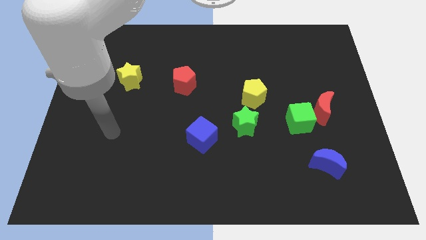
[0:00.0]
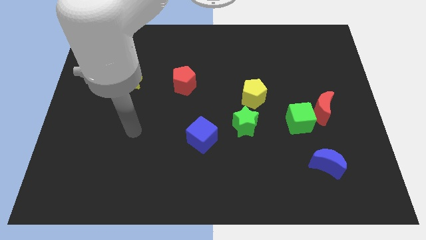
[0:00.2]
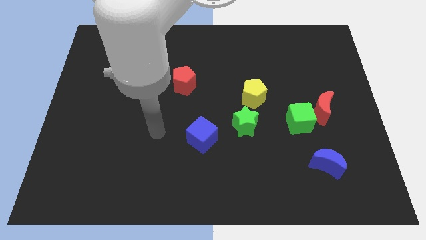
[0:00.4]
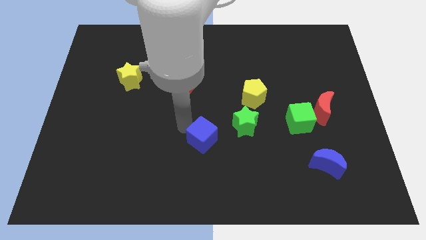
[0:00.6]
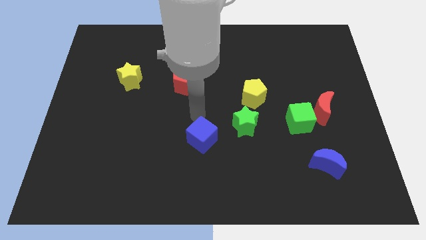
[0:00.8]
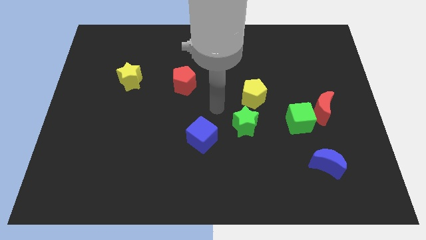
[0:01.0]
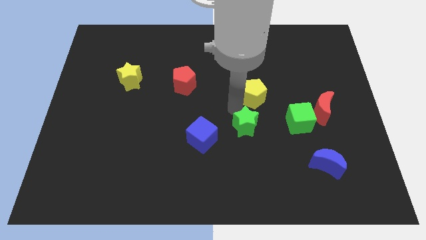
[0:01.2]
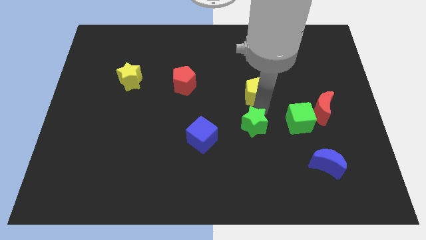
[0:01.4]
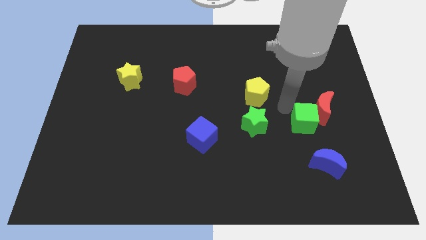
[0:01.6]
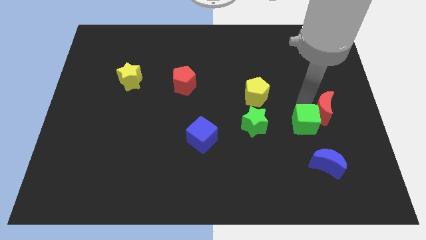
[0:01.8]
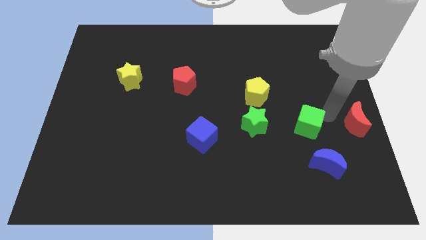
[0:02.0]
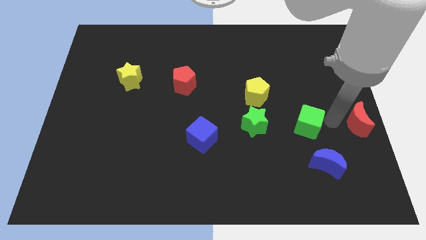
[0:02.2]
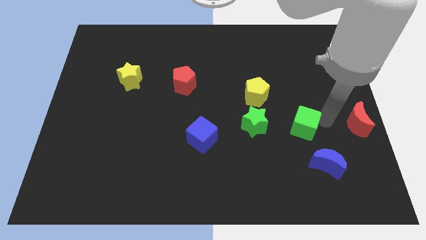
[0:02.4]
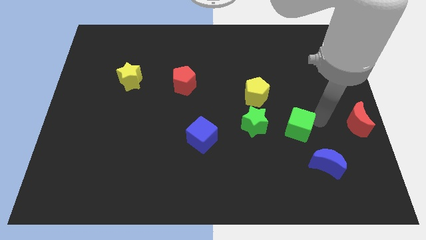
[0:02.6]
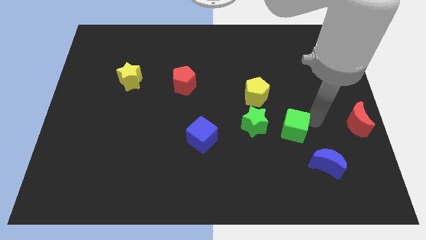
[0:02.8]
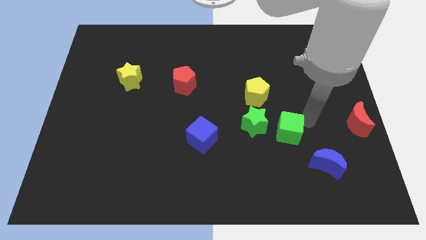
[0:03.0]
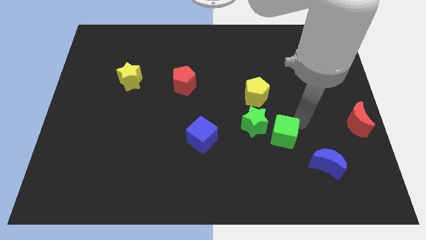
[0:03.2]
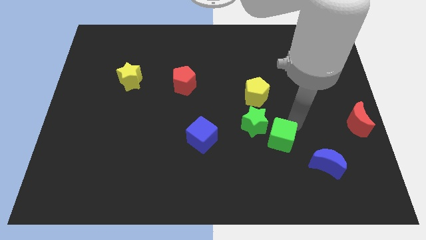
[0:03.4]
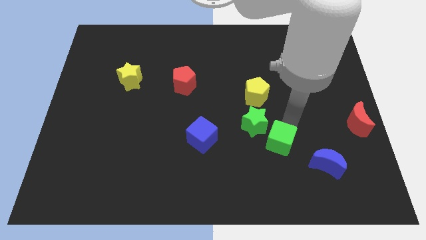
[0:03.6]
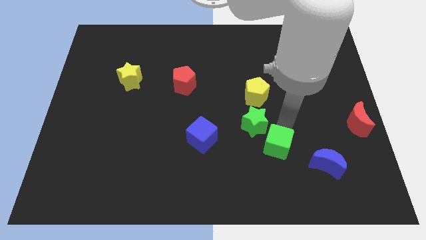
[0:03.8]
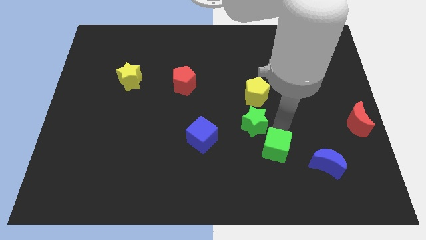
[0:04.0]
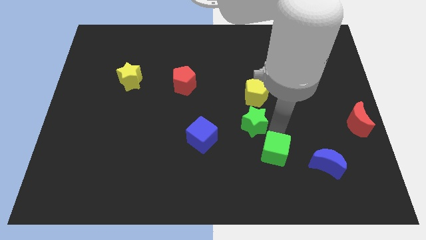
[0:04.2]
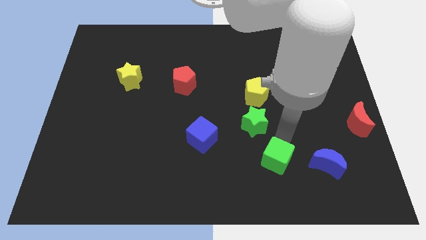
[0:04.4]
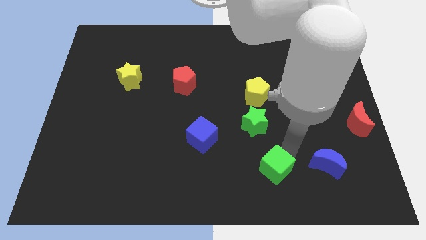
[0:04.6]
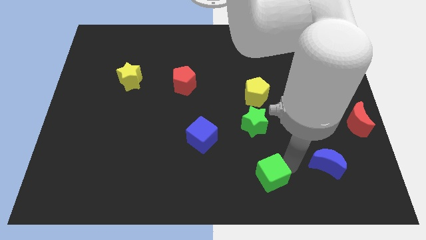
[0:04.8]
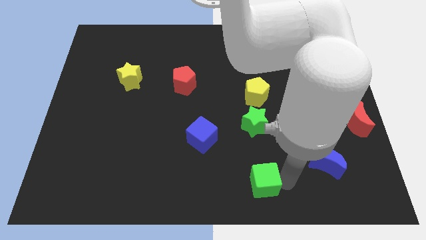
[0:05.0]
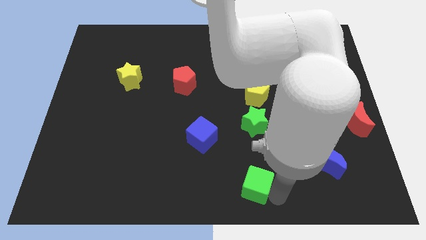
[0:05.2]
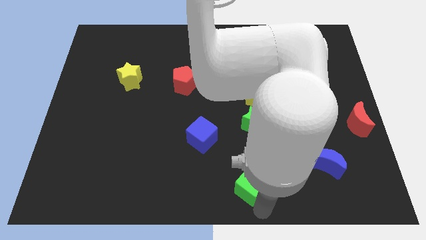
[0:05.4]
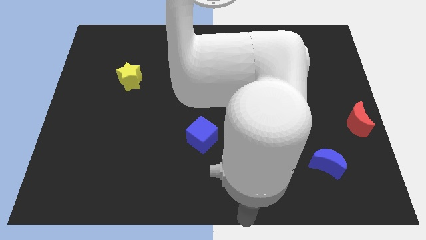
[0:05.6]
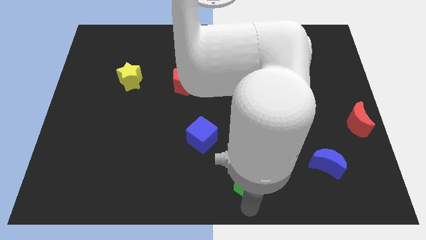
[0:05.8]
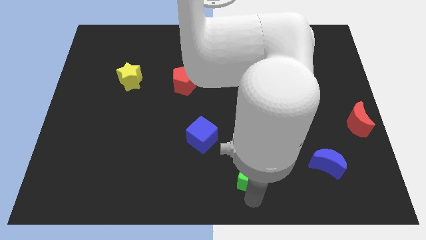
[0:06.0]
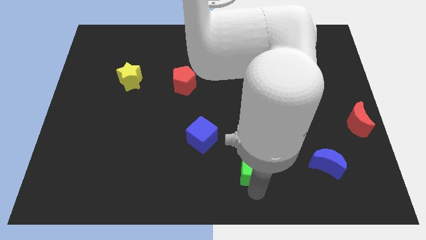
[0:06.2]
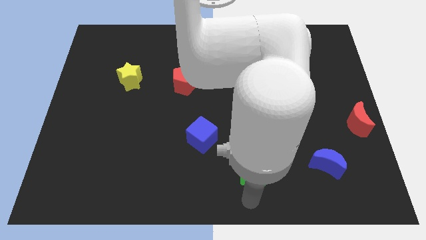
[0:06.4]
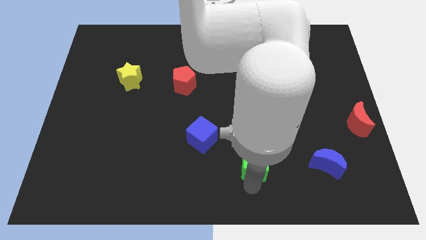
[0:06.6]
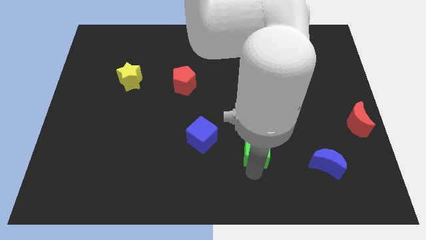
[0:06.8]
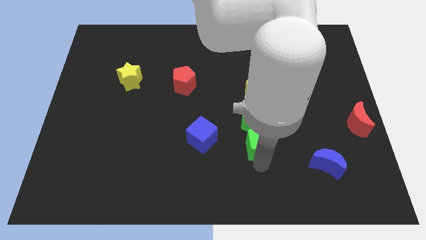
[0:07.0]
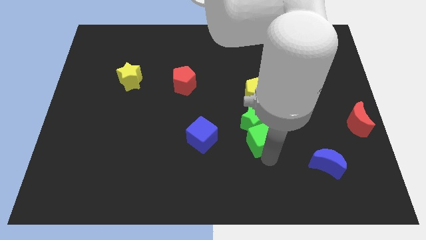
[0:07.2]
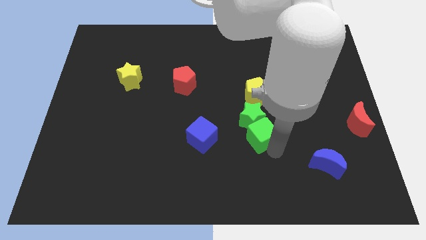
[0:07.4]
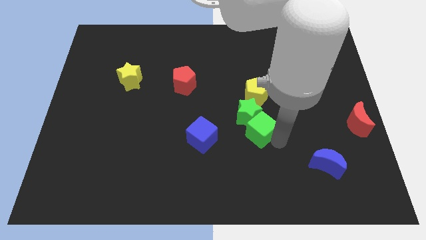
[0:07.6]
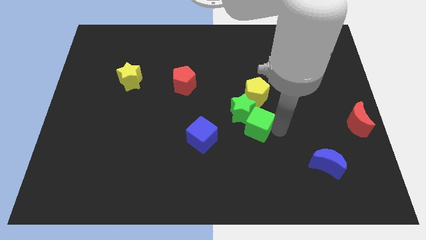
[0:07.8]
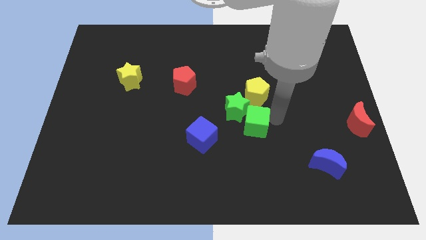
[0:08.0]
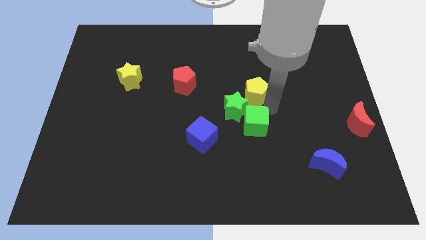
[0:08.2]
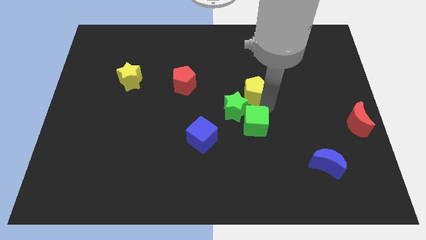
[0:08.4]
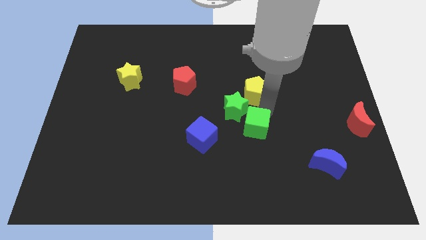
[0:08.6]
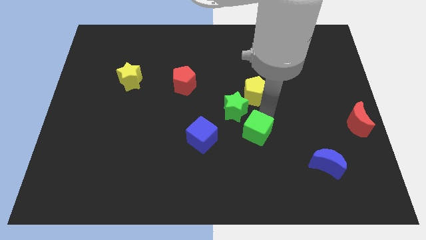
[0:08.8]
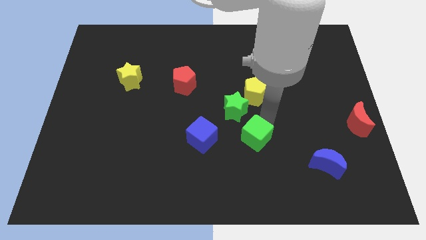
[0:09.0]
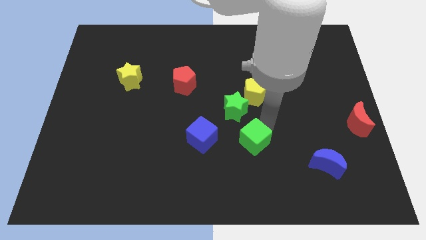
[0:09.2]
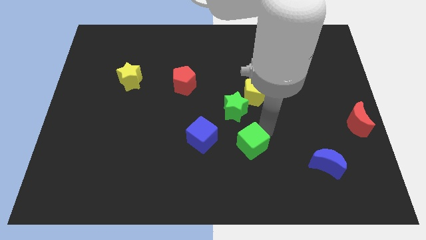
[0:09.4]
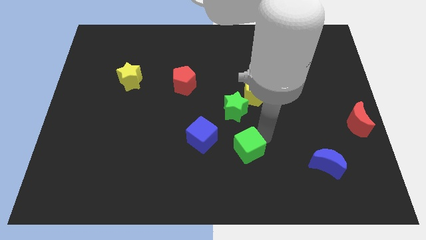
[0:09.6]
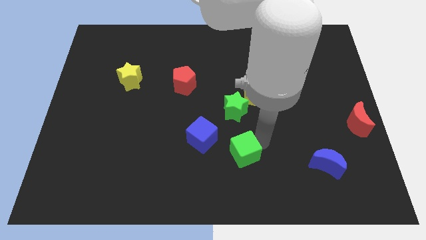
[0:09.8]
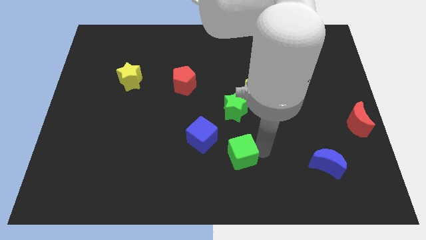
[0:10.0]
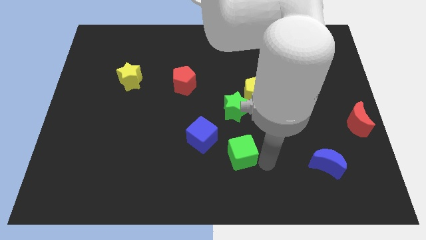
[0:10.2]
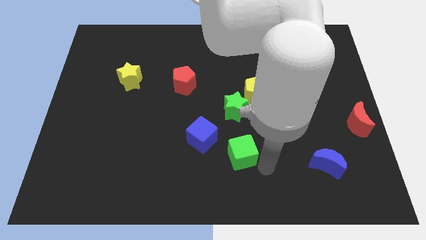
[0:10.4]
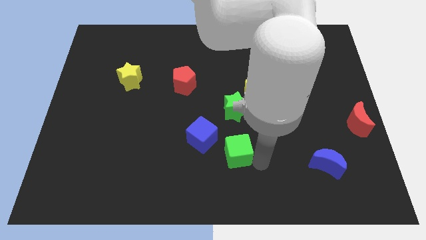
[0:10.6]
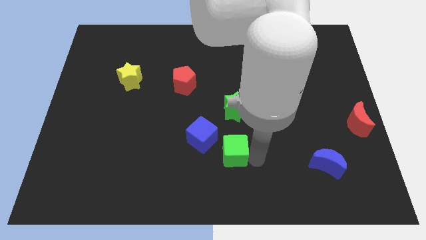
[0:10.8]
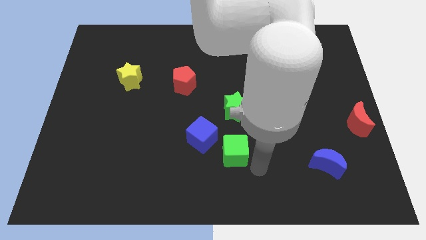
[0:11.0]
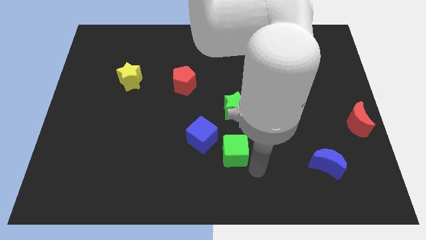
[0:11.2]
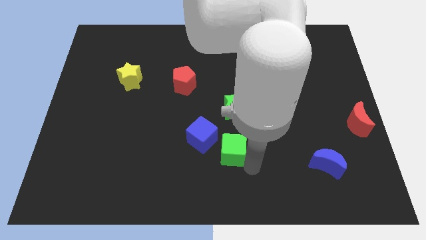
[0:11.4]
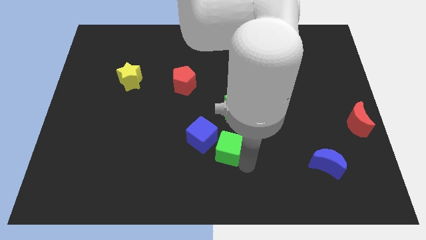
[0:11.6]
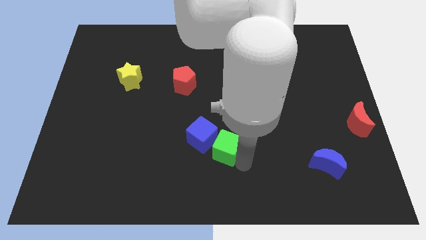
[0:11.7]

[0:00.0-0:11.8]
push the green cube towards the blue cube

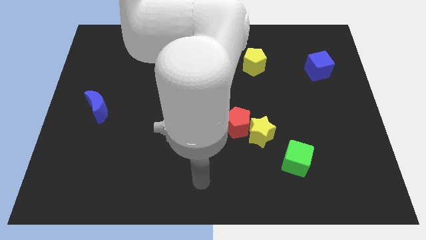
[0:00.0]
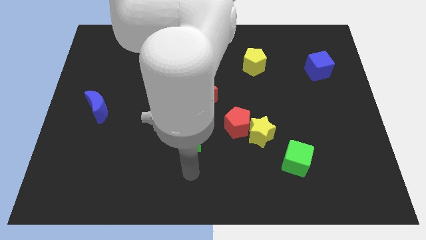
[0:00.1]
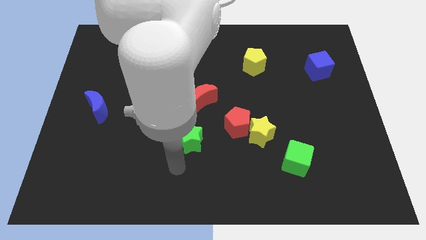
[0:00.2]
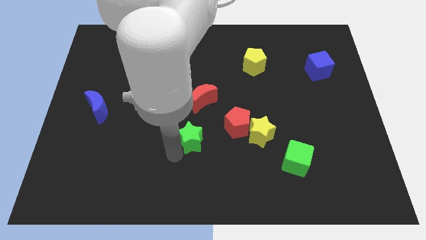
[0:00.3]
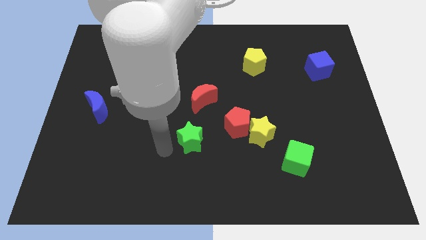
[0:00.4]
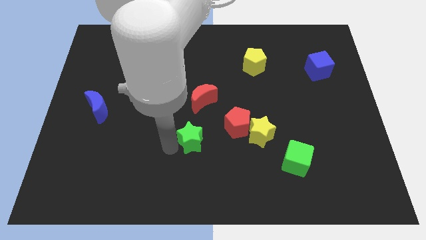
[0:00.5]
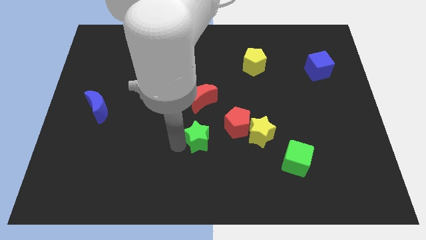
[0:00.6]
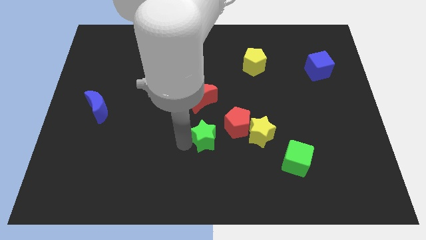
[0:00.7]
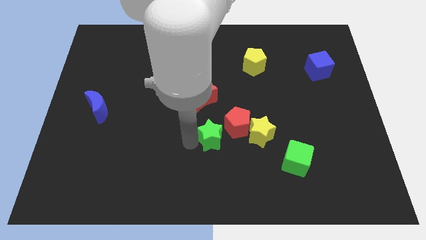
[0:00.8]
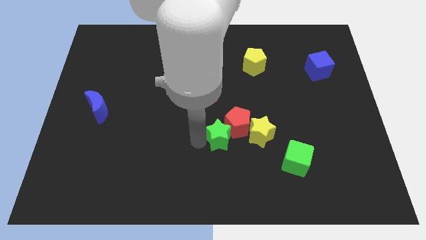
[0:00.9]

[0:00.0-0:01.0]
put the green star next to the red pentagon
